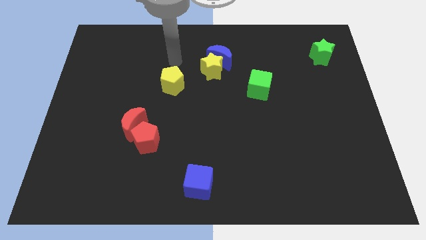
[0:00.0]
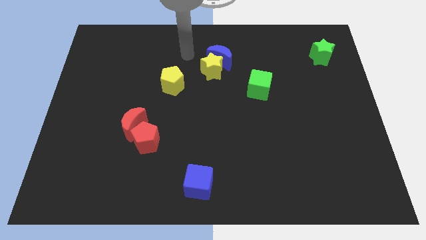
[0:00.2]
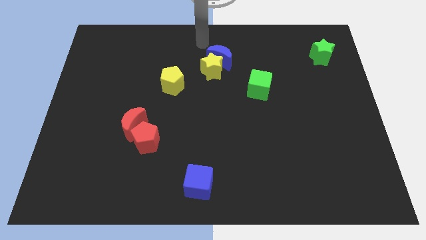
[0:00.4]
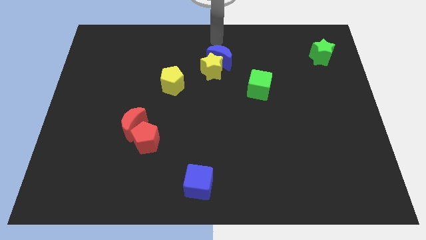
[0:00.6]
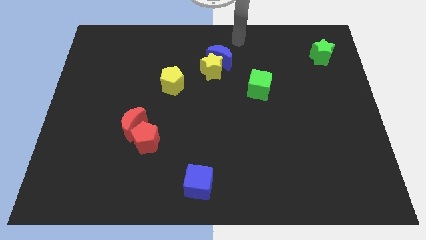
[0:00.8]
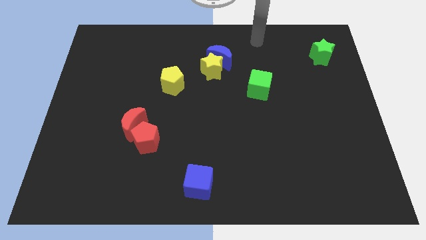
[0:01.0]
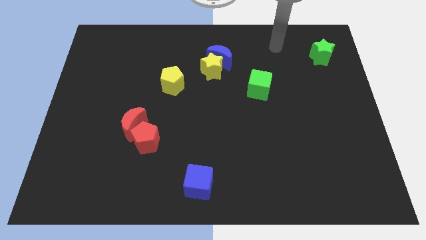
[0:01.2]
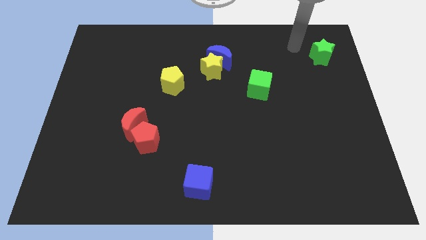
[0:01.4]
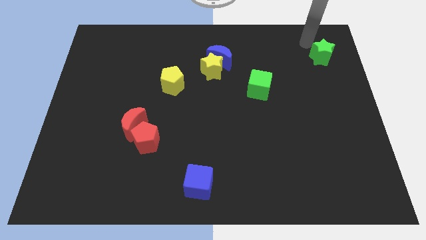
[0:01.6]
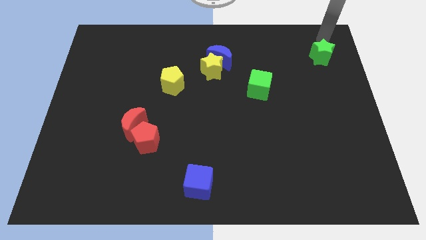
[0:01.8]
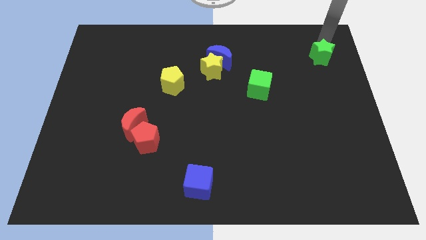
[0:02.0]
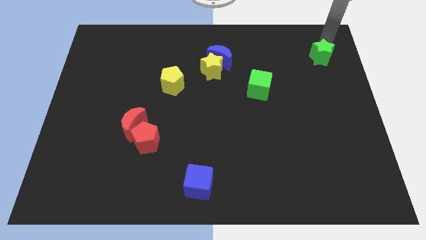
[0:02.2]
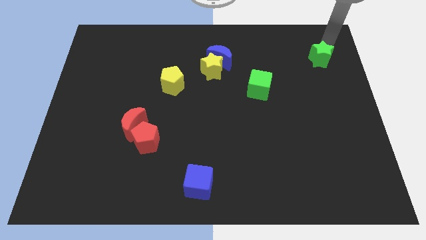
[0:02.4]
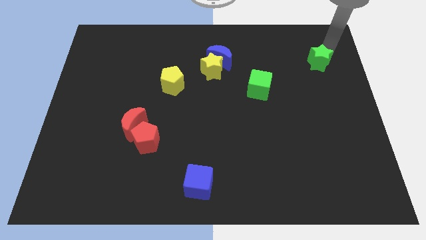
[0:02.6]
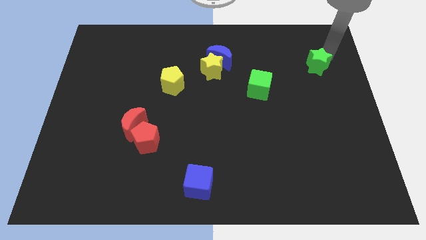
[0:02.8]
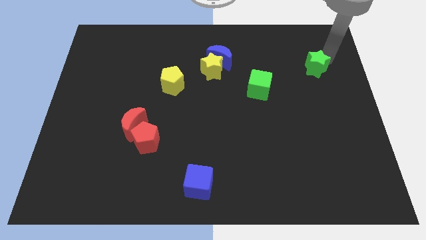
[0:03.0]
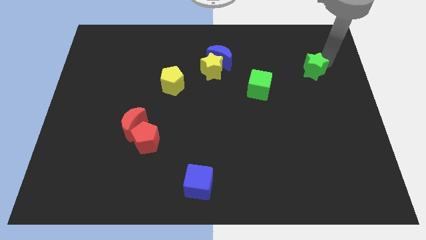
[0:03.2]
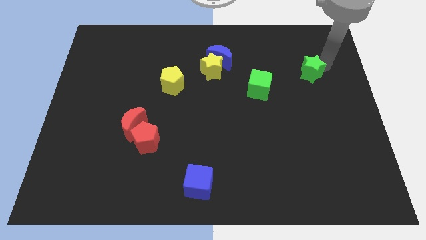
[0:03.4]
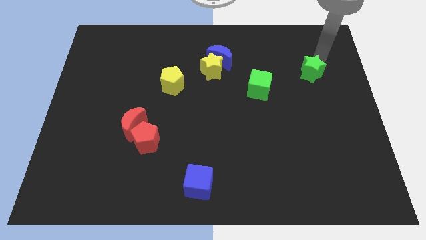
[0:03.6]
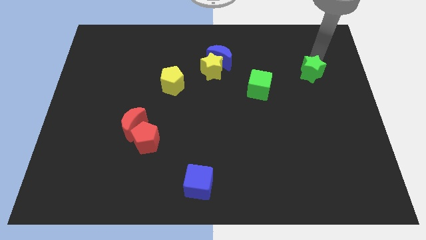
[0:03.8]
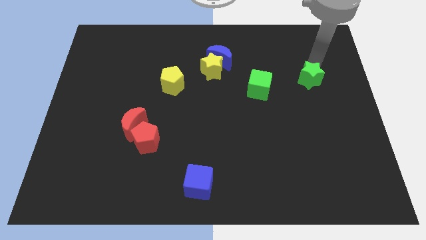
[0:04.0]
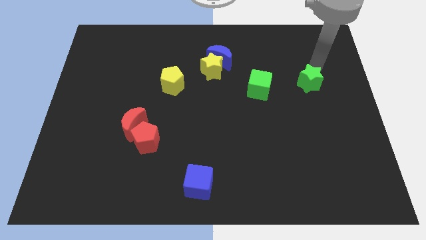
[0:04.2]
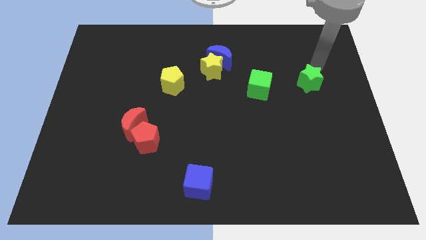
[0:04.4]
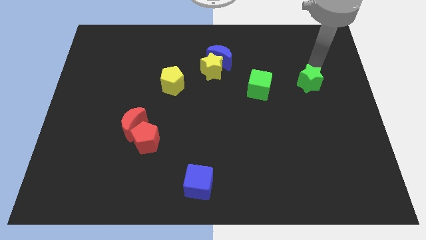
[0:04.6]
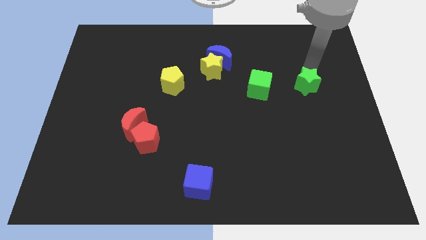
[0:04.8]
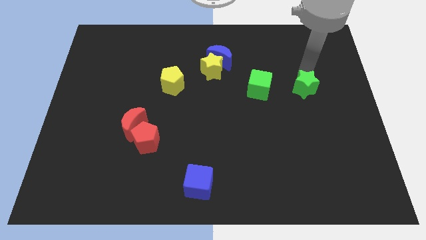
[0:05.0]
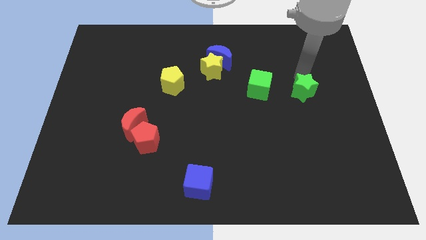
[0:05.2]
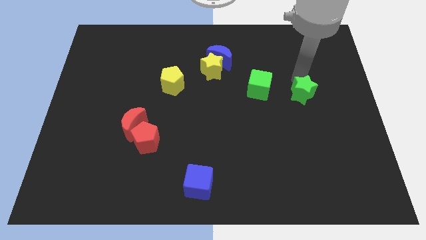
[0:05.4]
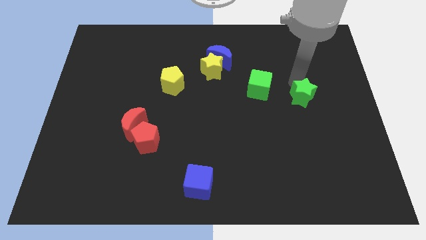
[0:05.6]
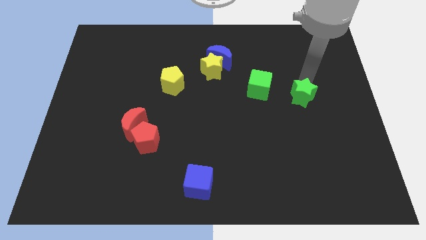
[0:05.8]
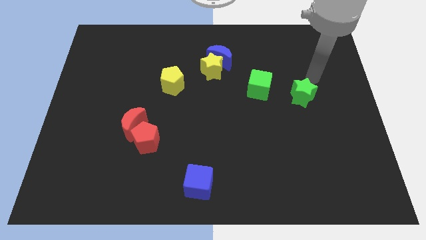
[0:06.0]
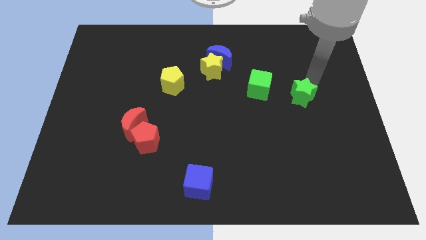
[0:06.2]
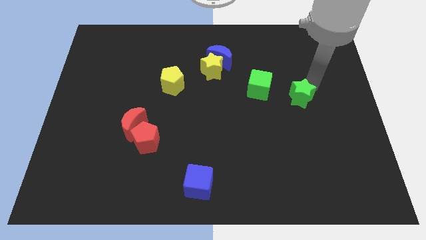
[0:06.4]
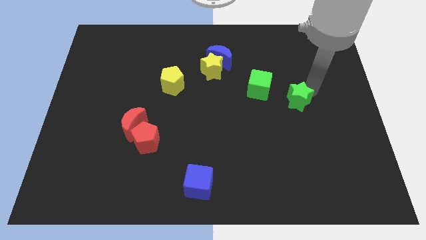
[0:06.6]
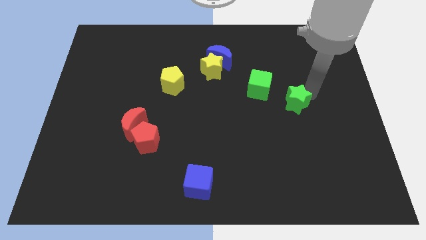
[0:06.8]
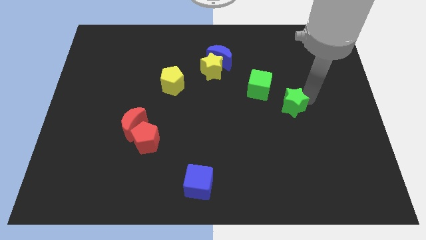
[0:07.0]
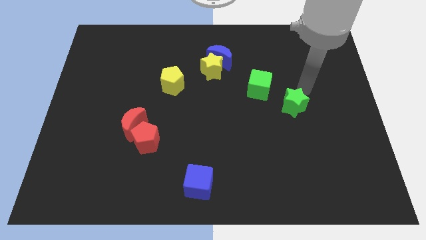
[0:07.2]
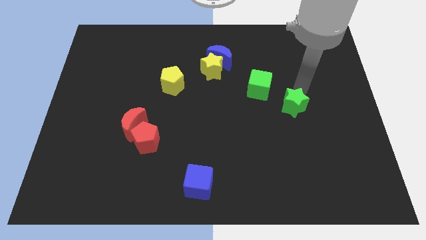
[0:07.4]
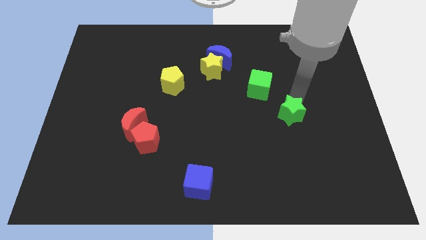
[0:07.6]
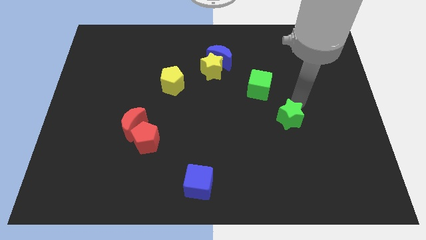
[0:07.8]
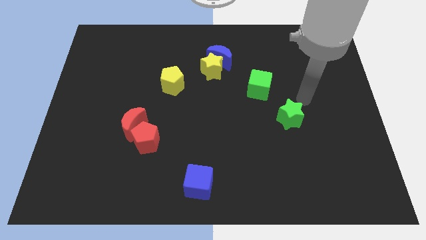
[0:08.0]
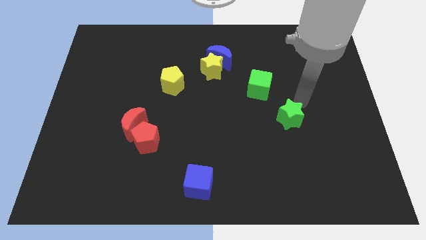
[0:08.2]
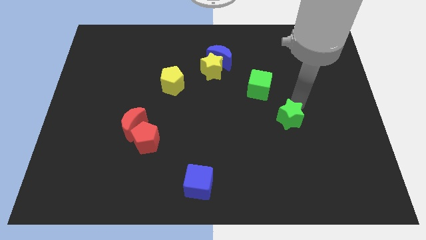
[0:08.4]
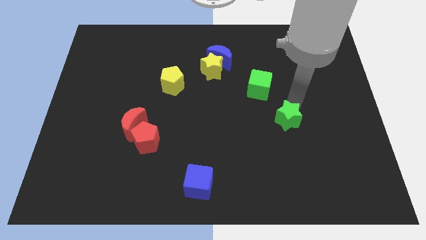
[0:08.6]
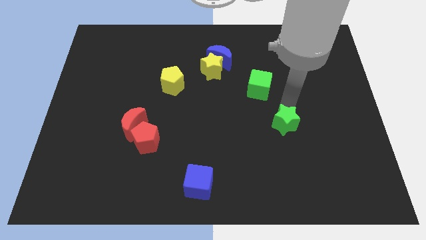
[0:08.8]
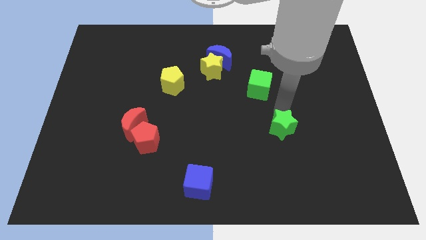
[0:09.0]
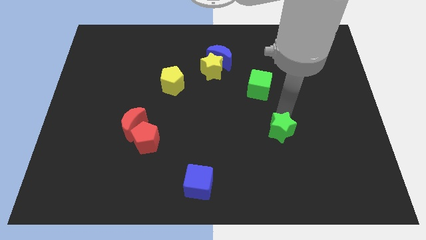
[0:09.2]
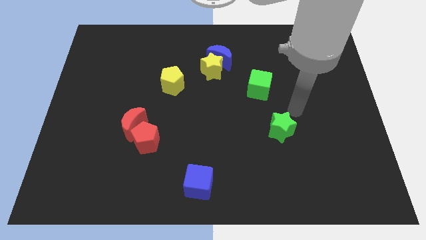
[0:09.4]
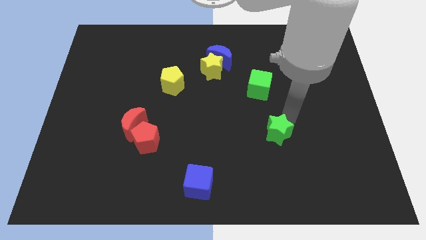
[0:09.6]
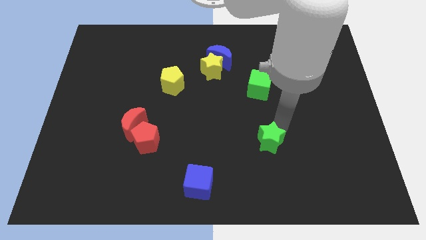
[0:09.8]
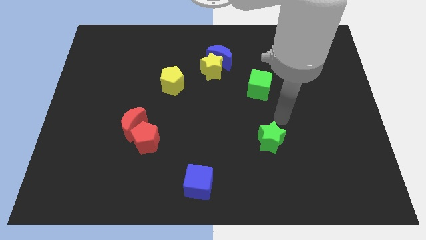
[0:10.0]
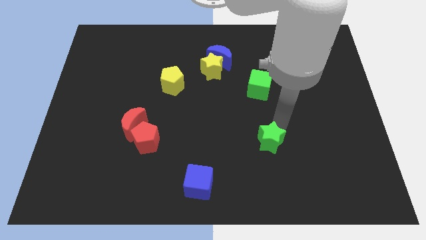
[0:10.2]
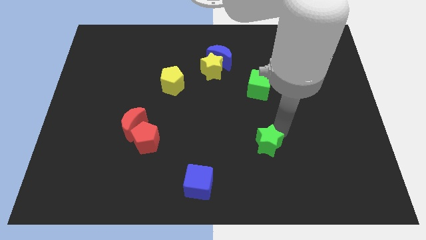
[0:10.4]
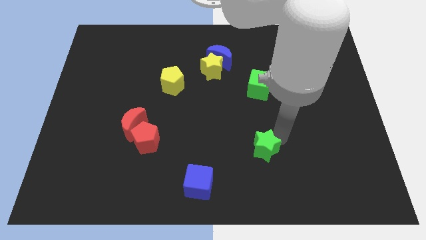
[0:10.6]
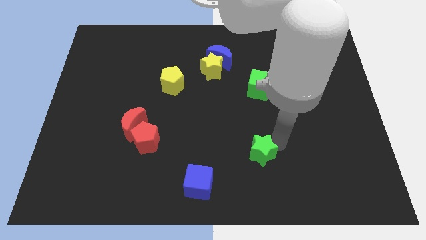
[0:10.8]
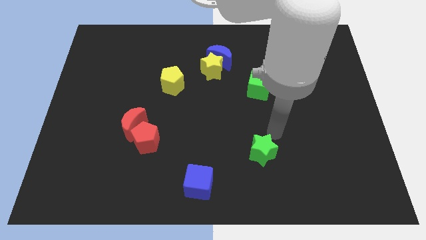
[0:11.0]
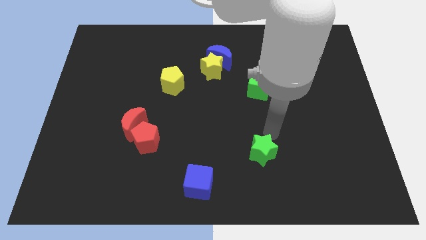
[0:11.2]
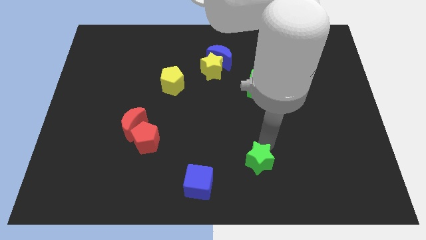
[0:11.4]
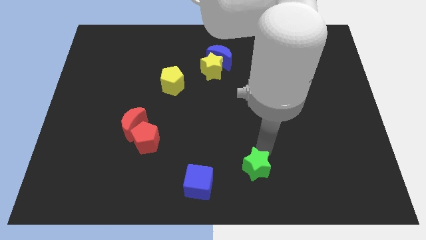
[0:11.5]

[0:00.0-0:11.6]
slide the green star to the bottom side
